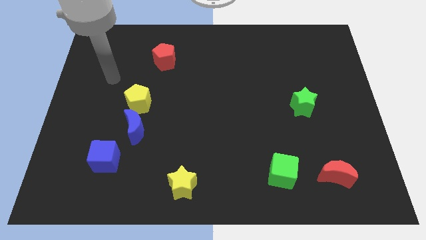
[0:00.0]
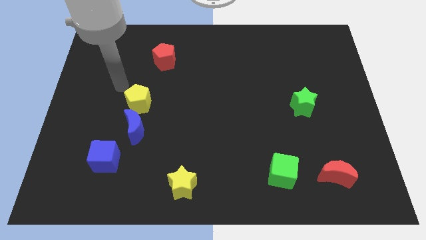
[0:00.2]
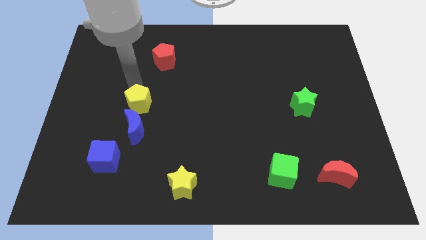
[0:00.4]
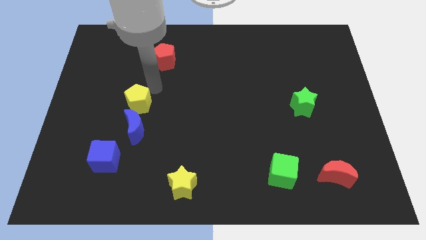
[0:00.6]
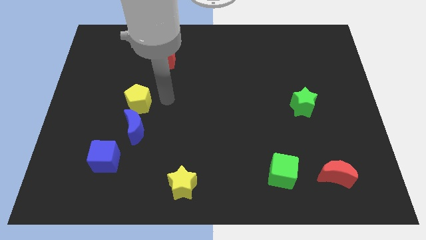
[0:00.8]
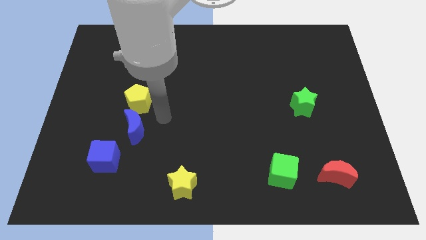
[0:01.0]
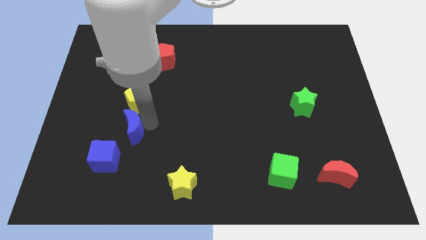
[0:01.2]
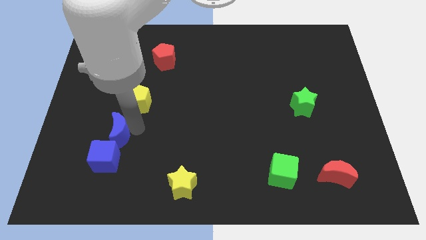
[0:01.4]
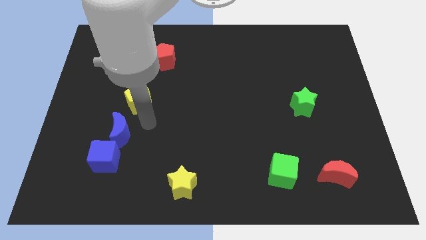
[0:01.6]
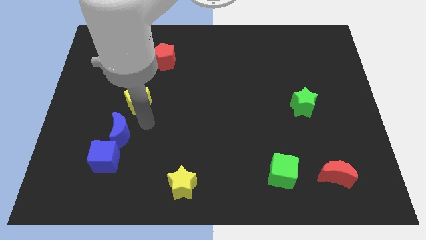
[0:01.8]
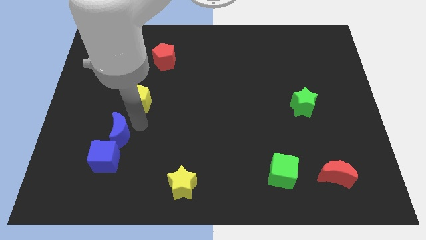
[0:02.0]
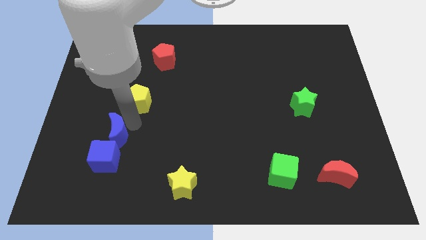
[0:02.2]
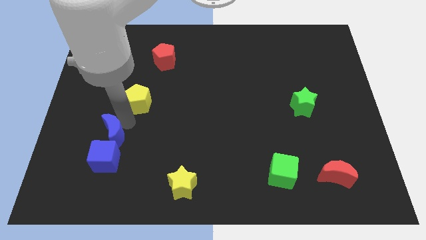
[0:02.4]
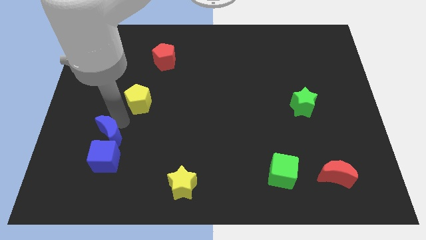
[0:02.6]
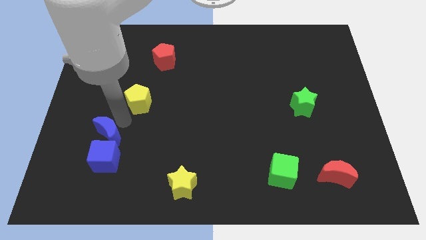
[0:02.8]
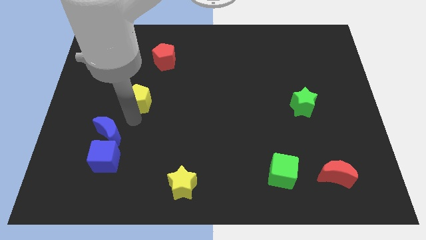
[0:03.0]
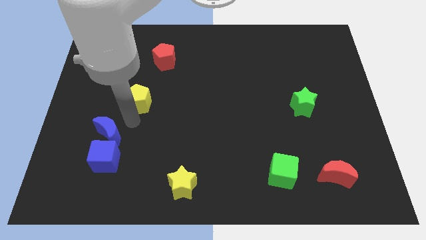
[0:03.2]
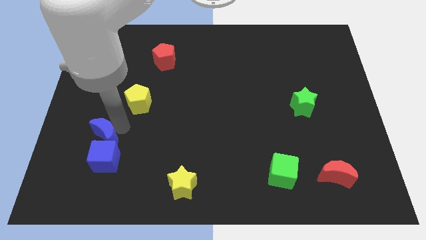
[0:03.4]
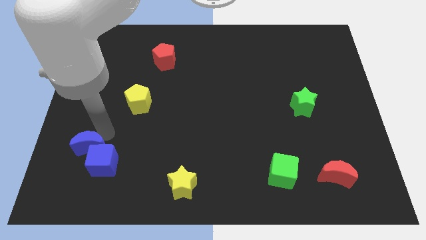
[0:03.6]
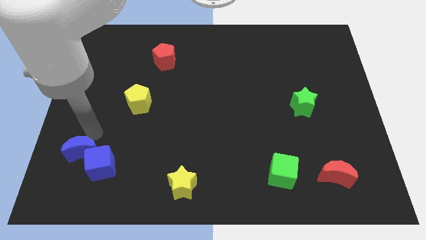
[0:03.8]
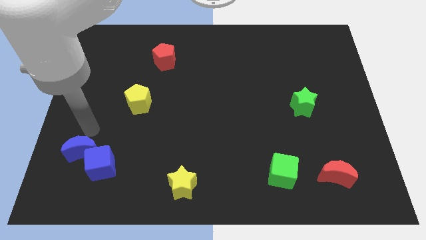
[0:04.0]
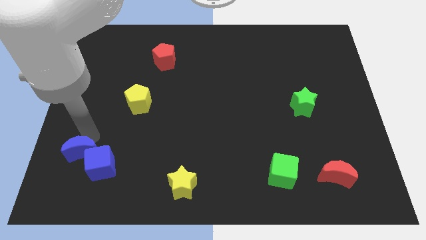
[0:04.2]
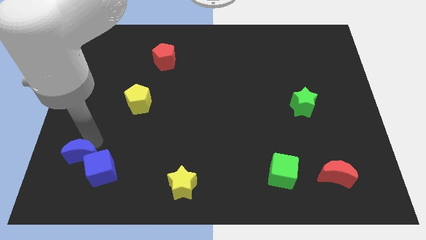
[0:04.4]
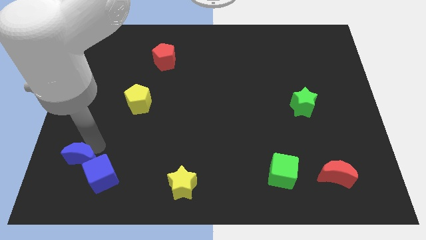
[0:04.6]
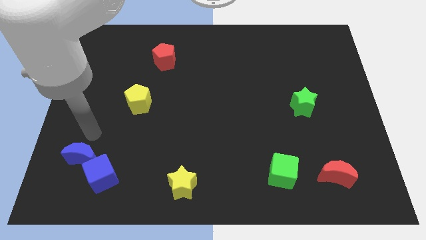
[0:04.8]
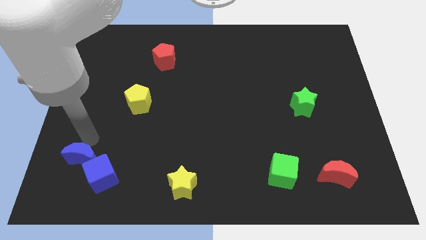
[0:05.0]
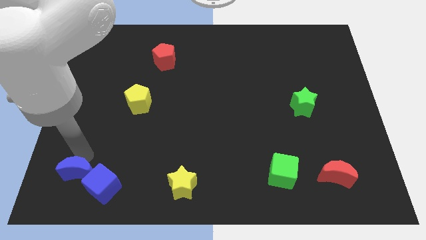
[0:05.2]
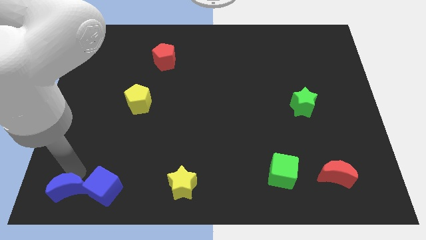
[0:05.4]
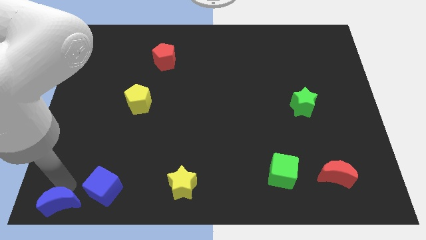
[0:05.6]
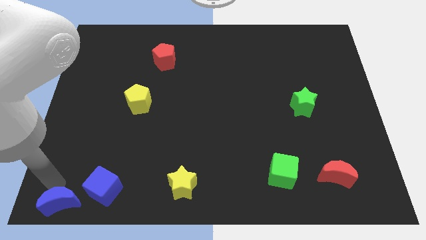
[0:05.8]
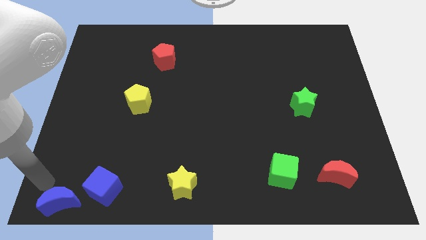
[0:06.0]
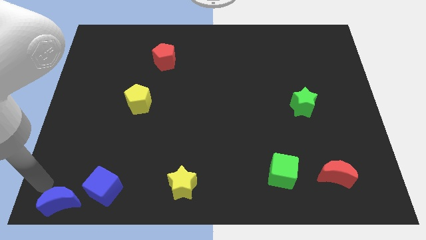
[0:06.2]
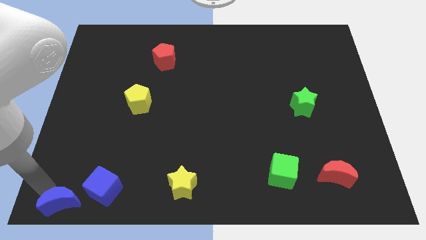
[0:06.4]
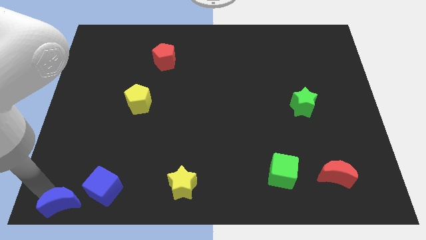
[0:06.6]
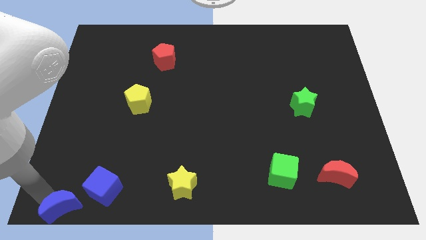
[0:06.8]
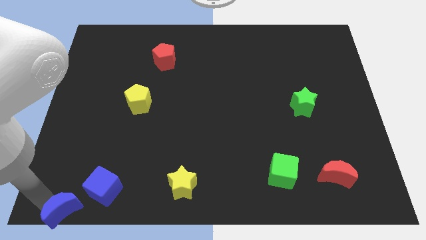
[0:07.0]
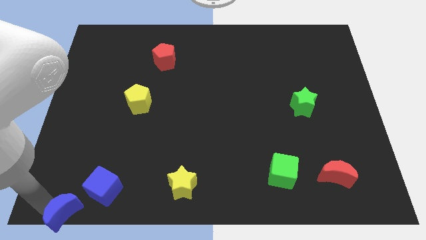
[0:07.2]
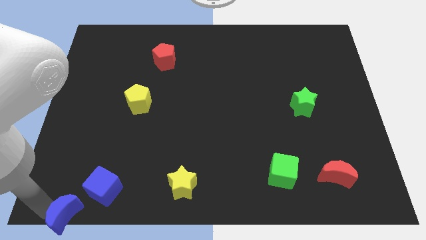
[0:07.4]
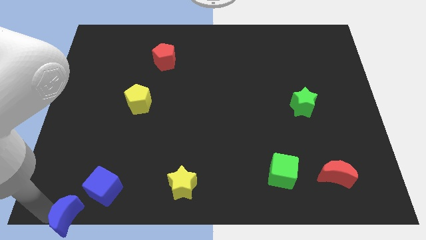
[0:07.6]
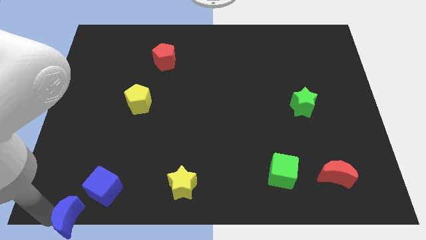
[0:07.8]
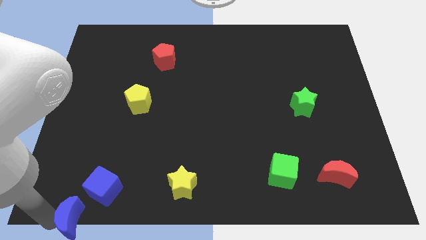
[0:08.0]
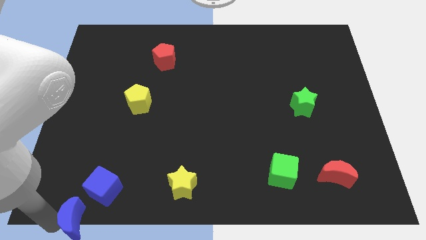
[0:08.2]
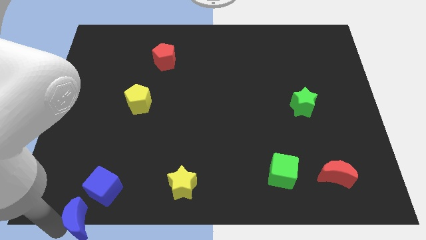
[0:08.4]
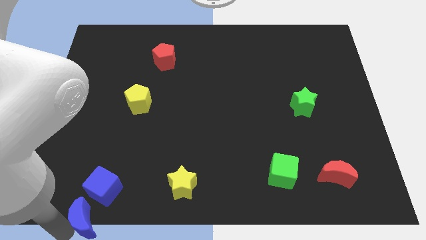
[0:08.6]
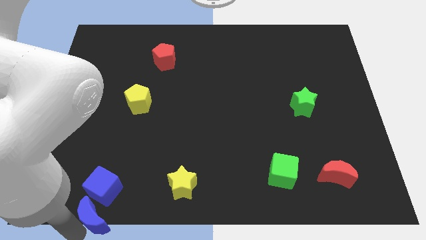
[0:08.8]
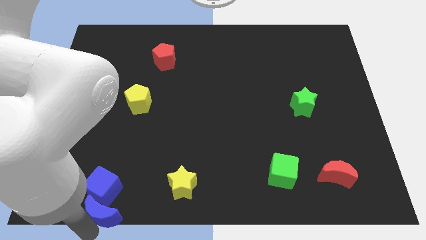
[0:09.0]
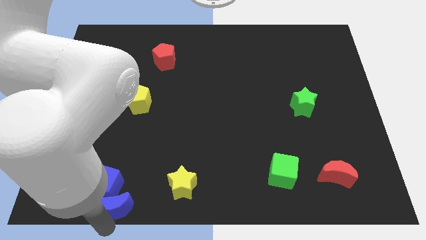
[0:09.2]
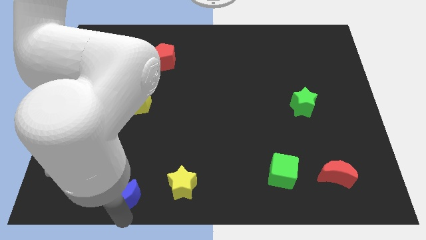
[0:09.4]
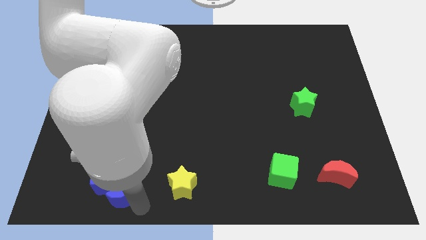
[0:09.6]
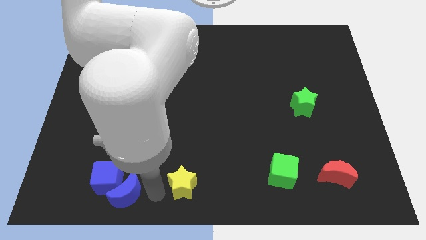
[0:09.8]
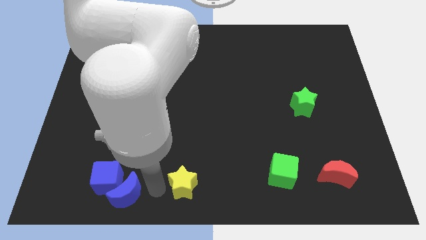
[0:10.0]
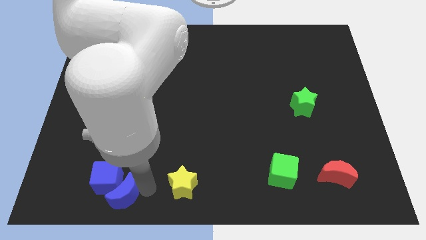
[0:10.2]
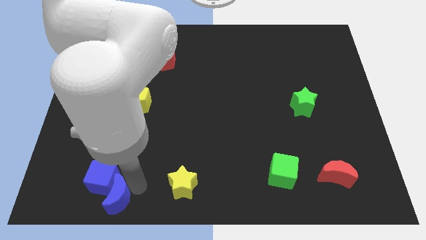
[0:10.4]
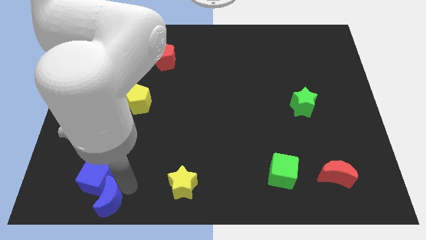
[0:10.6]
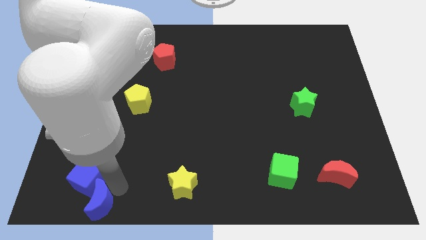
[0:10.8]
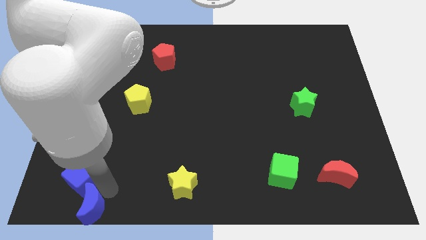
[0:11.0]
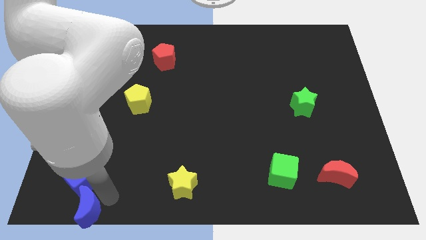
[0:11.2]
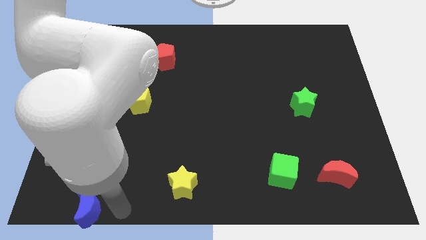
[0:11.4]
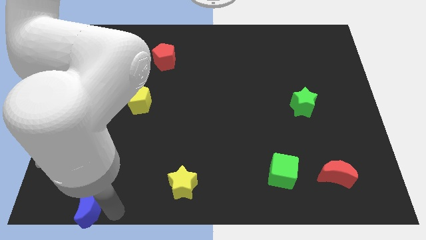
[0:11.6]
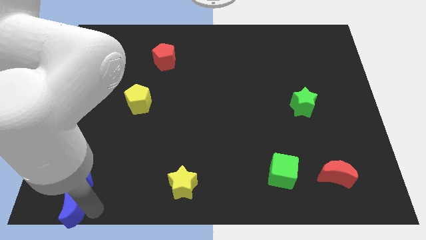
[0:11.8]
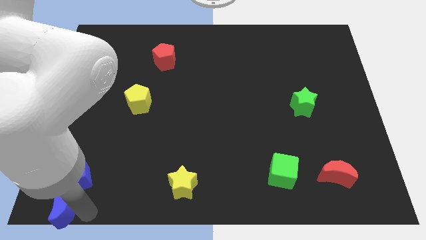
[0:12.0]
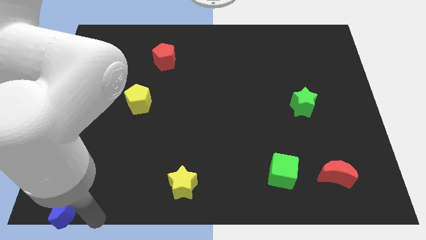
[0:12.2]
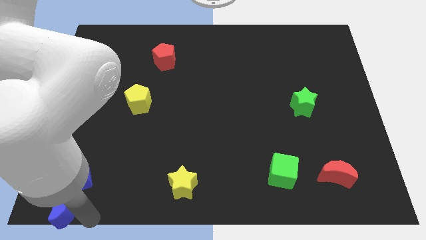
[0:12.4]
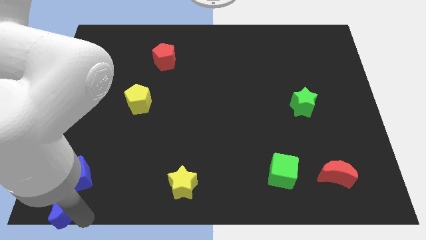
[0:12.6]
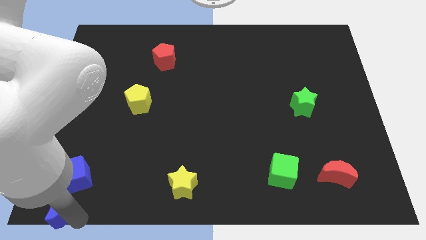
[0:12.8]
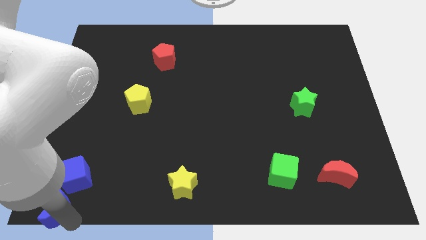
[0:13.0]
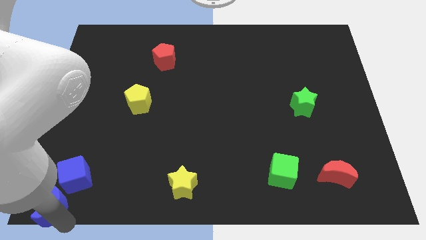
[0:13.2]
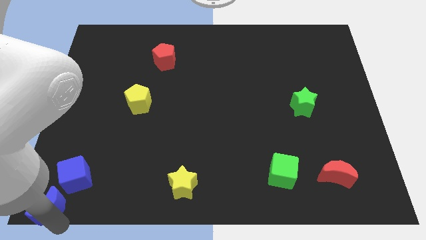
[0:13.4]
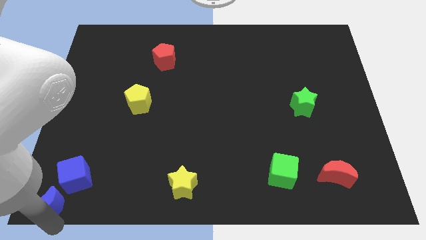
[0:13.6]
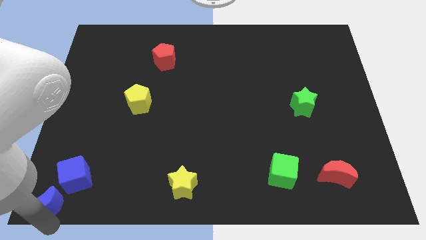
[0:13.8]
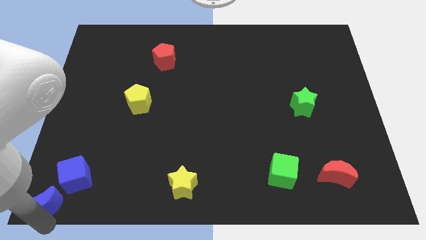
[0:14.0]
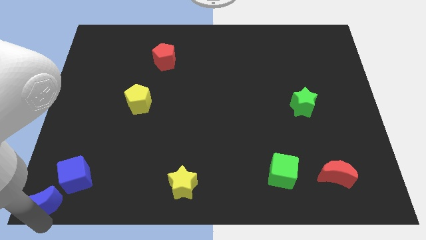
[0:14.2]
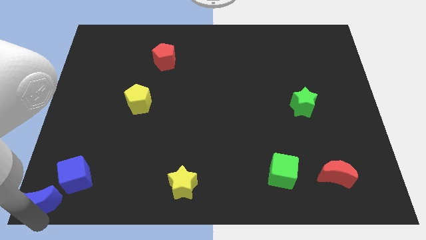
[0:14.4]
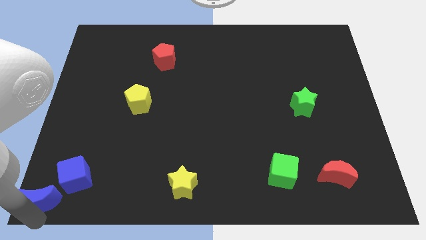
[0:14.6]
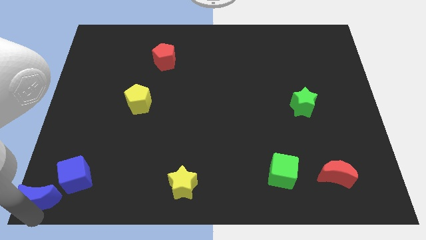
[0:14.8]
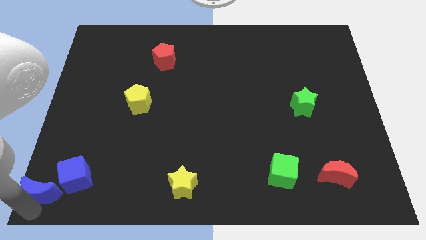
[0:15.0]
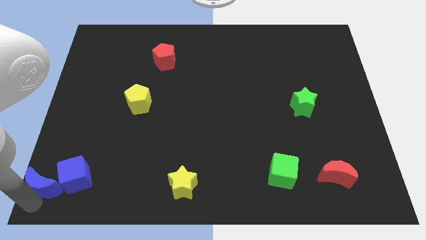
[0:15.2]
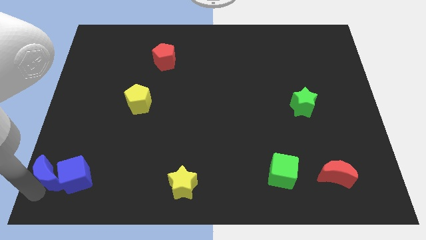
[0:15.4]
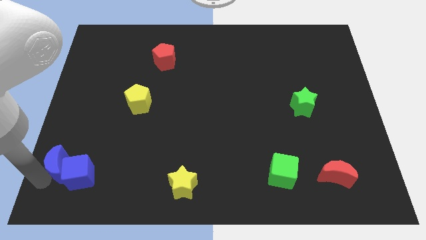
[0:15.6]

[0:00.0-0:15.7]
put the blue moon to the bottom left of the blue cube
